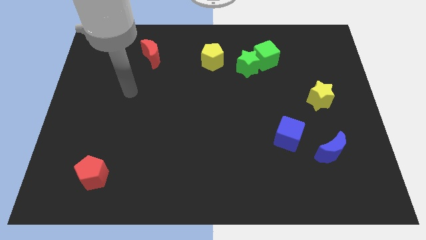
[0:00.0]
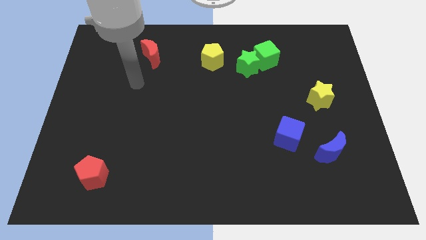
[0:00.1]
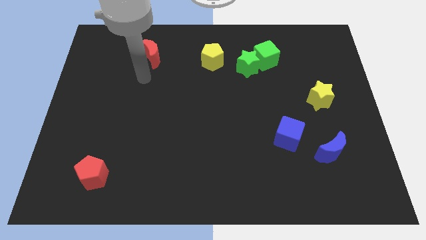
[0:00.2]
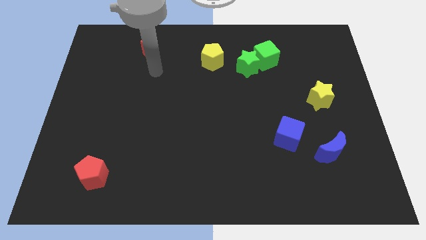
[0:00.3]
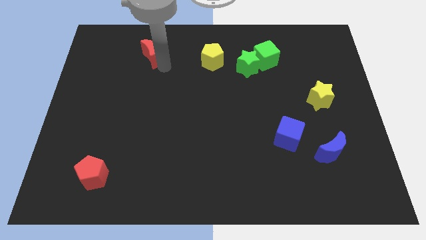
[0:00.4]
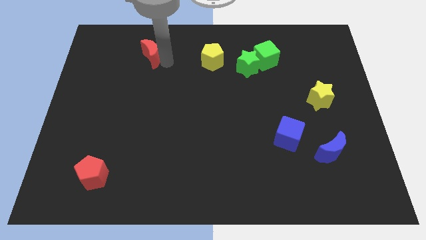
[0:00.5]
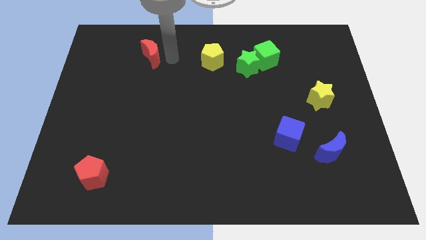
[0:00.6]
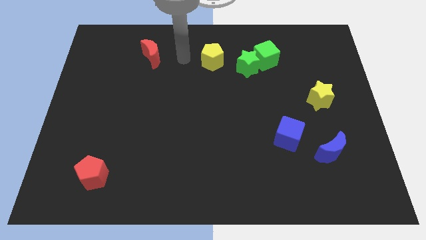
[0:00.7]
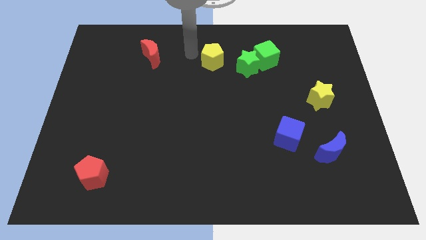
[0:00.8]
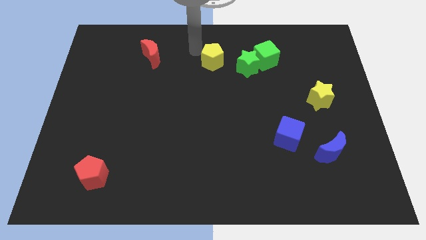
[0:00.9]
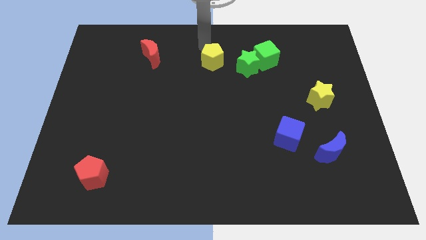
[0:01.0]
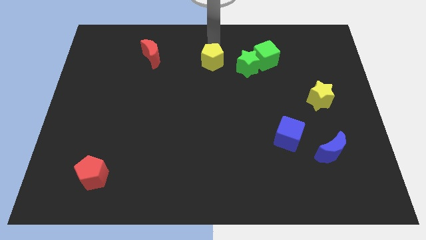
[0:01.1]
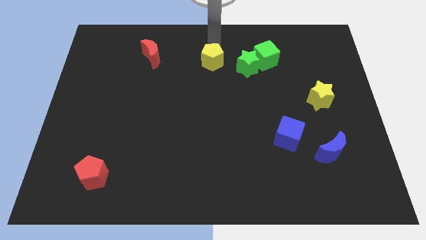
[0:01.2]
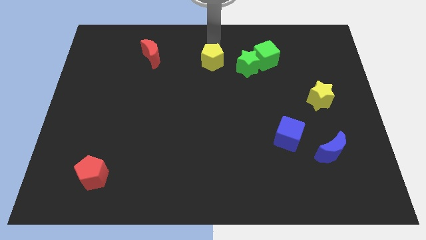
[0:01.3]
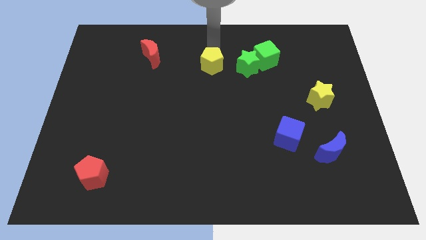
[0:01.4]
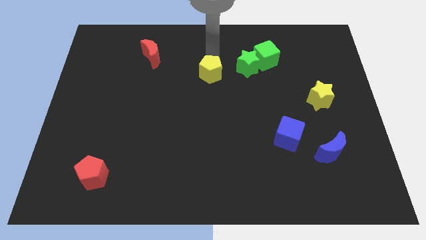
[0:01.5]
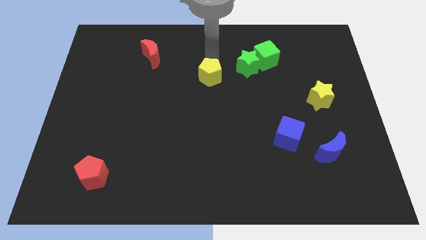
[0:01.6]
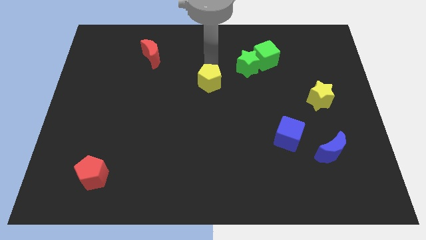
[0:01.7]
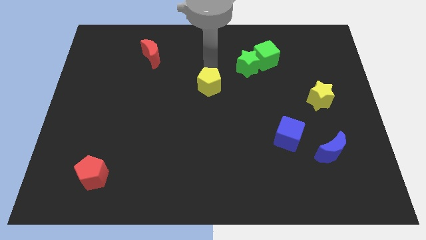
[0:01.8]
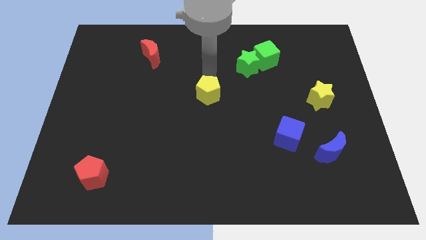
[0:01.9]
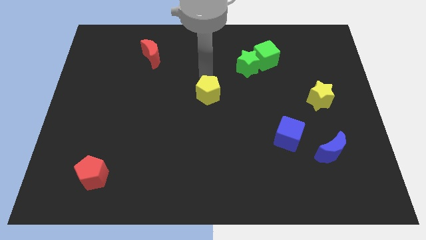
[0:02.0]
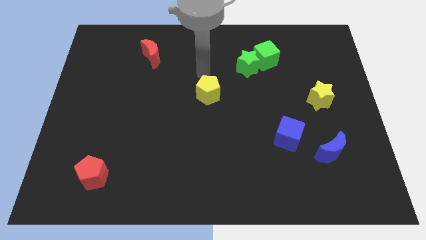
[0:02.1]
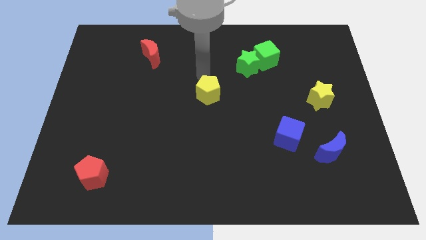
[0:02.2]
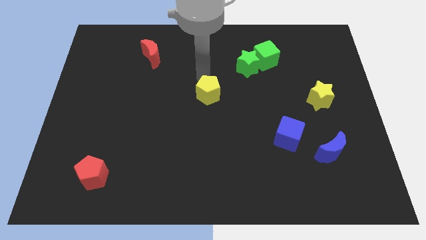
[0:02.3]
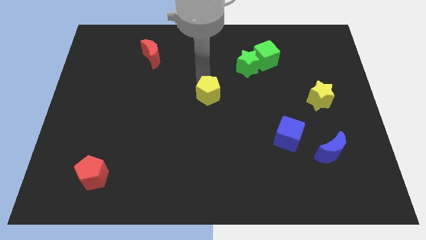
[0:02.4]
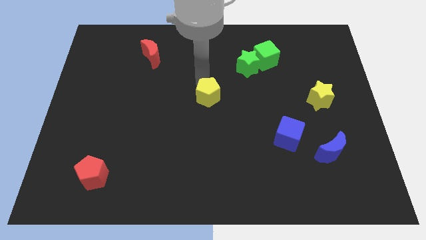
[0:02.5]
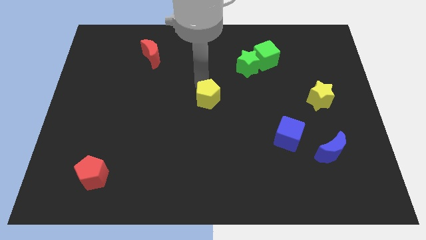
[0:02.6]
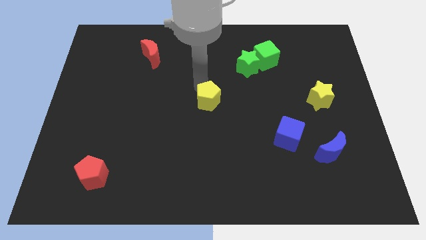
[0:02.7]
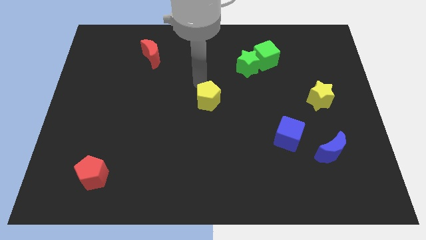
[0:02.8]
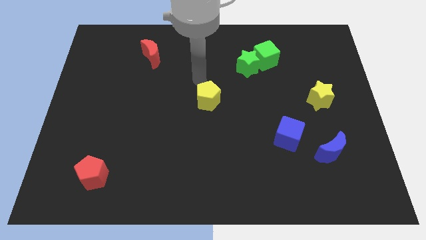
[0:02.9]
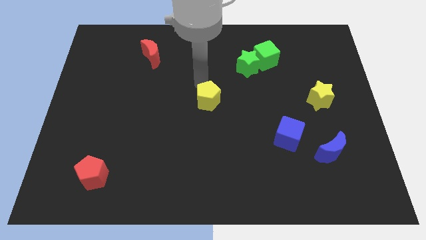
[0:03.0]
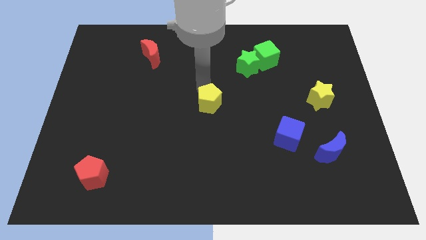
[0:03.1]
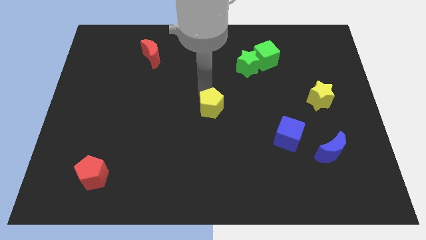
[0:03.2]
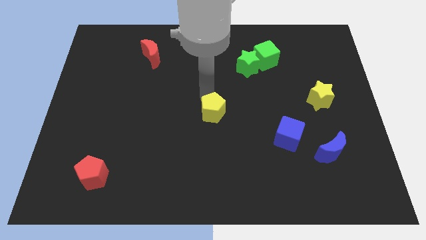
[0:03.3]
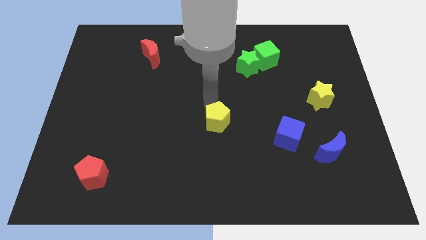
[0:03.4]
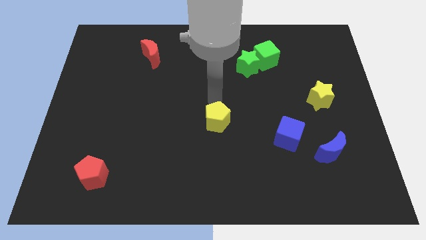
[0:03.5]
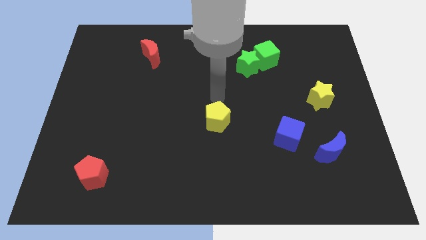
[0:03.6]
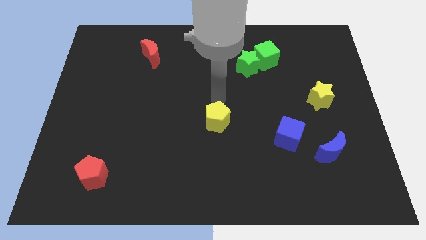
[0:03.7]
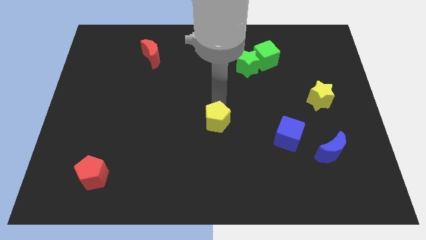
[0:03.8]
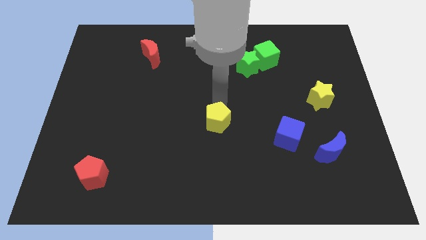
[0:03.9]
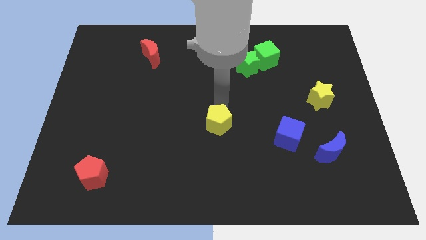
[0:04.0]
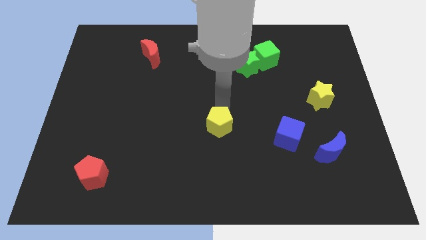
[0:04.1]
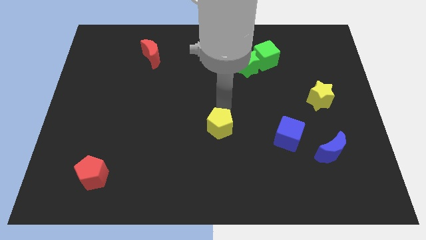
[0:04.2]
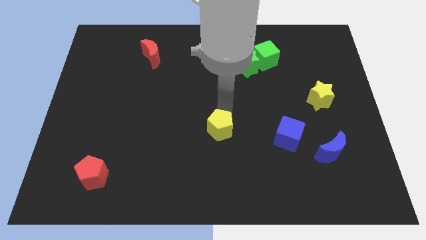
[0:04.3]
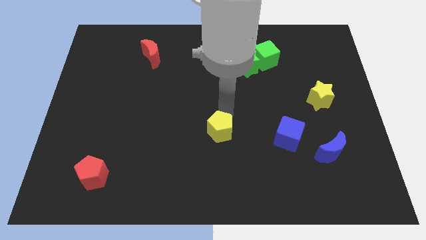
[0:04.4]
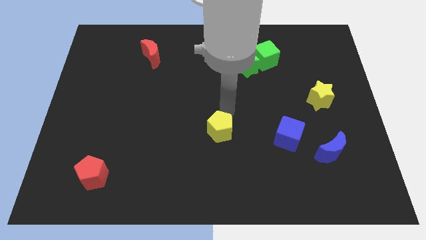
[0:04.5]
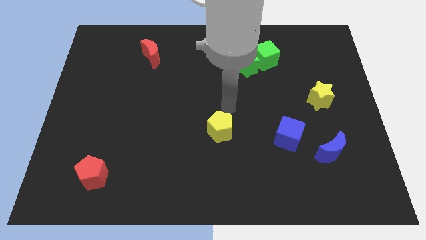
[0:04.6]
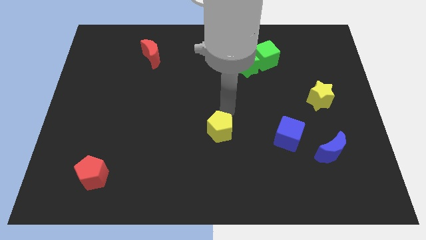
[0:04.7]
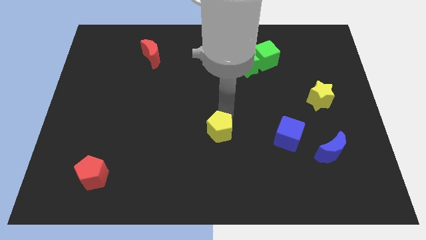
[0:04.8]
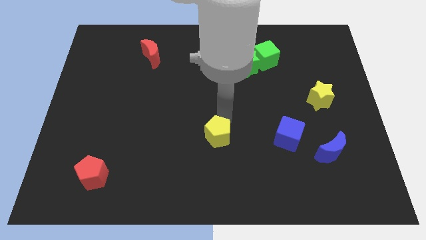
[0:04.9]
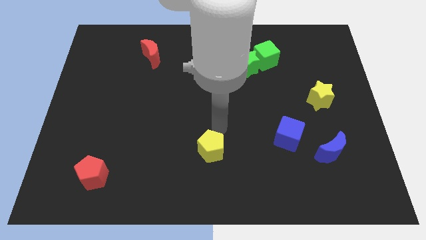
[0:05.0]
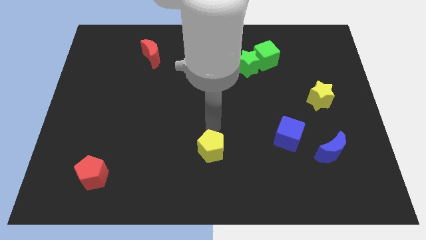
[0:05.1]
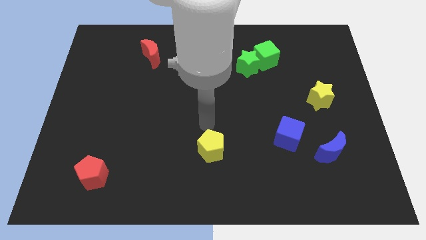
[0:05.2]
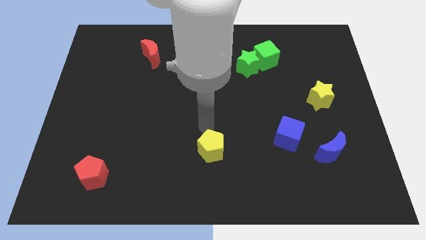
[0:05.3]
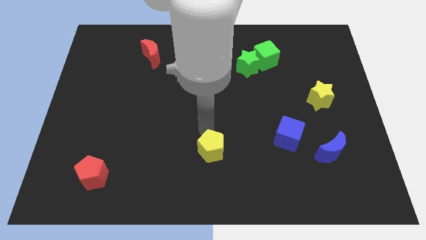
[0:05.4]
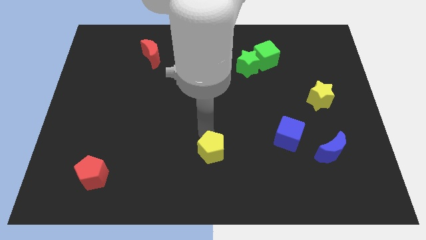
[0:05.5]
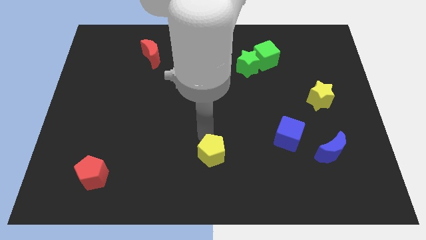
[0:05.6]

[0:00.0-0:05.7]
slide the yellow pentagon to the bottom side

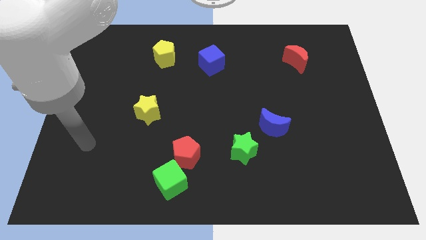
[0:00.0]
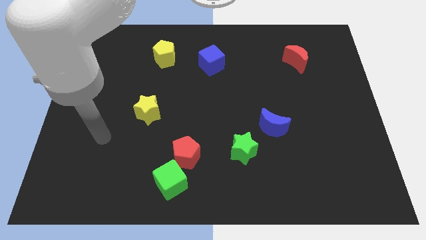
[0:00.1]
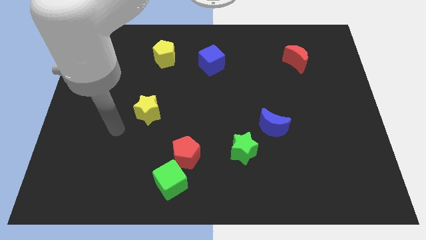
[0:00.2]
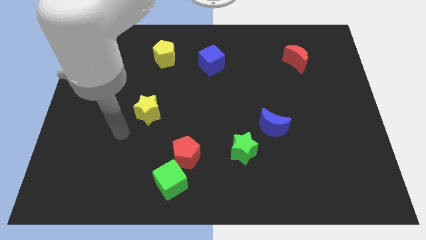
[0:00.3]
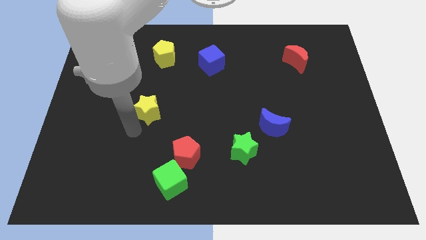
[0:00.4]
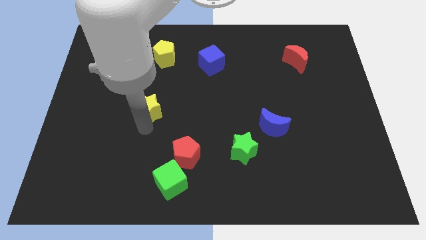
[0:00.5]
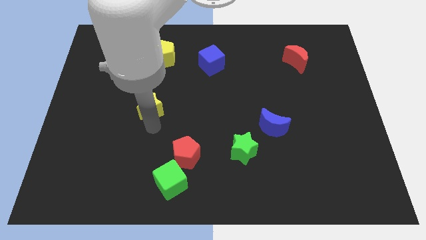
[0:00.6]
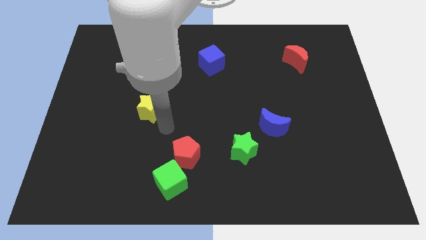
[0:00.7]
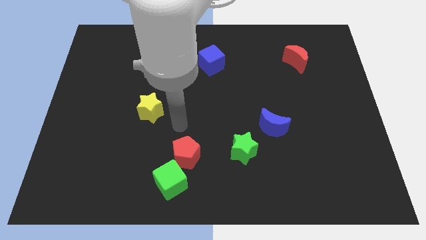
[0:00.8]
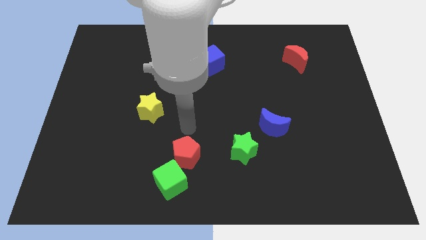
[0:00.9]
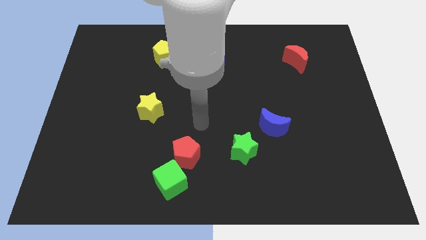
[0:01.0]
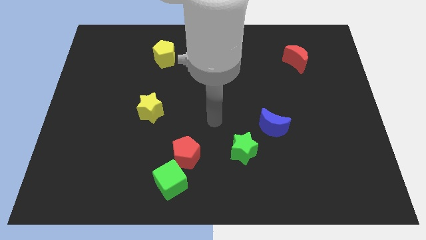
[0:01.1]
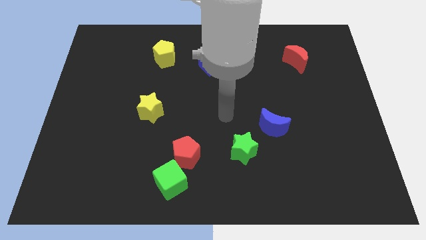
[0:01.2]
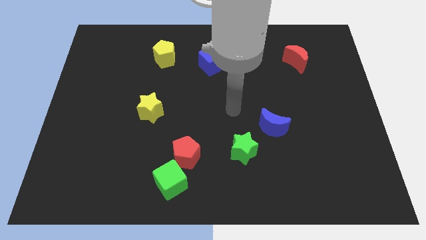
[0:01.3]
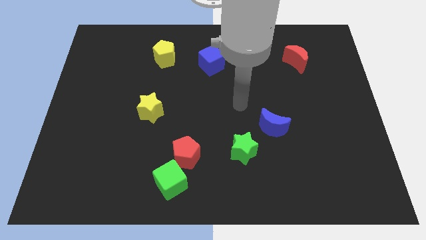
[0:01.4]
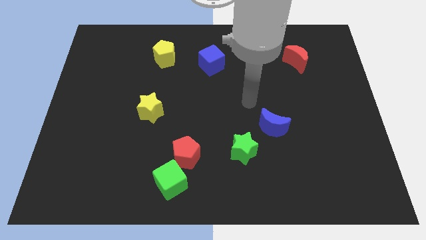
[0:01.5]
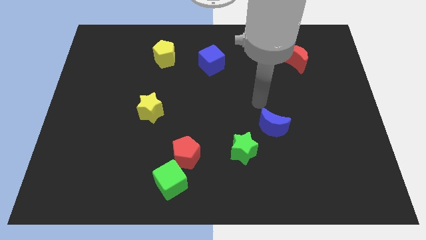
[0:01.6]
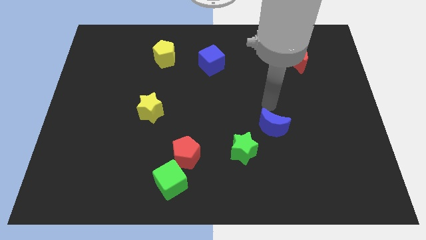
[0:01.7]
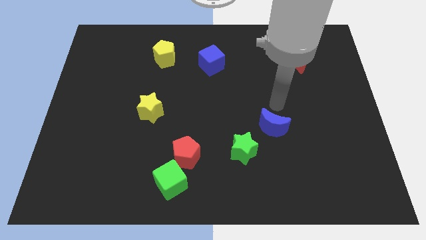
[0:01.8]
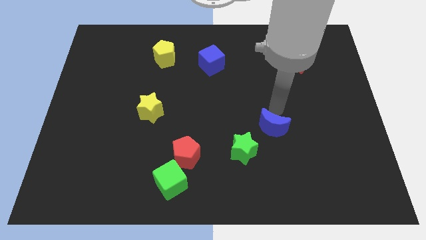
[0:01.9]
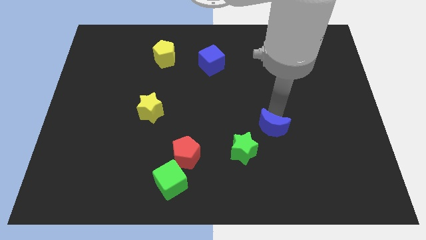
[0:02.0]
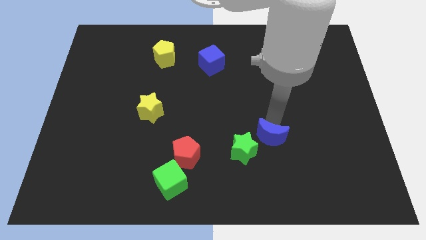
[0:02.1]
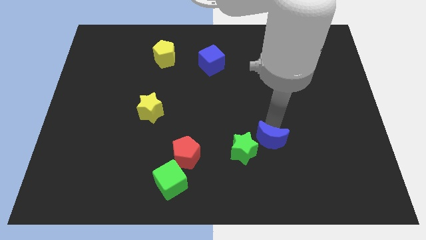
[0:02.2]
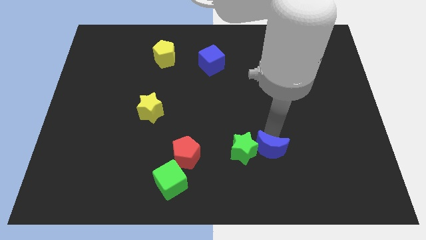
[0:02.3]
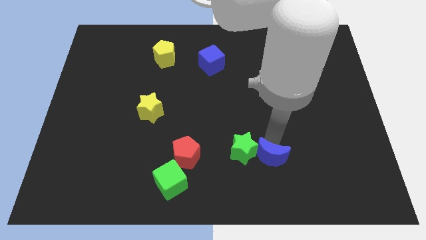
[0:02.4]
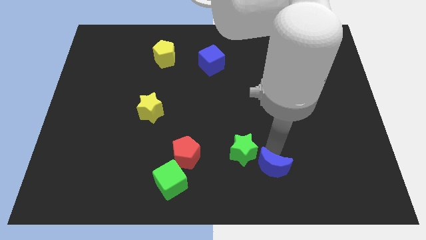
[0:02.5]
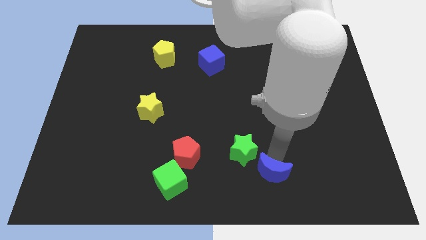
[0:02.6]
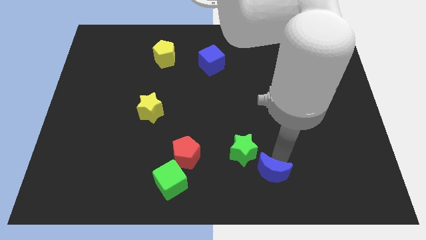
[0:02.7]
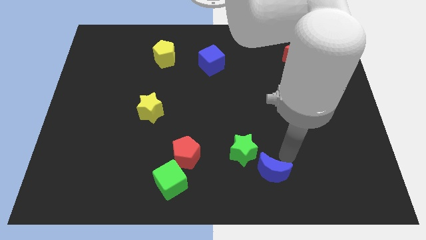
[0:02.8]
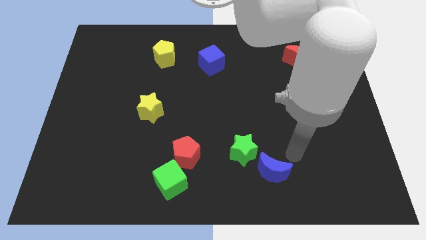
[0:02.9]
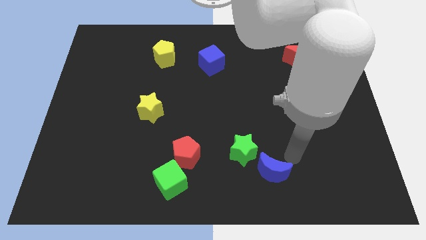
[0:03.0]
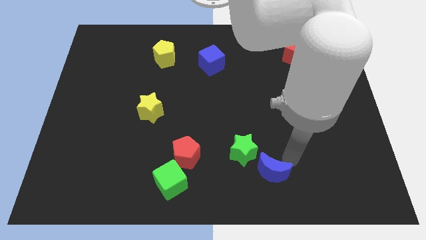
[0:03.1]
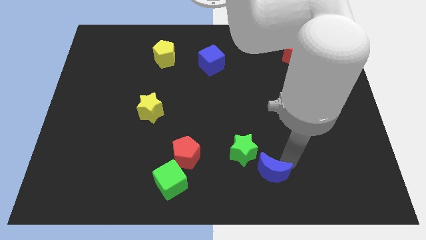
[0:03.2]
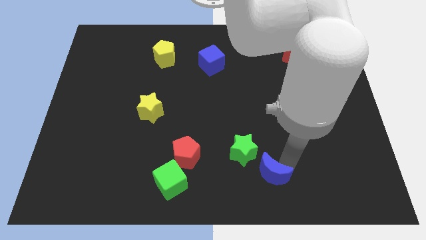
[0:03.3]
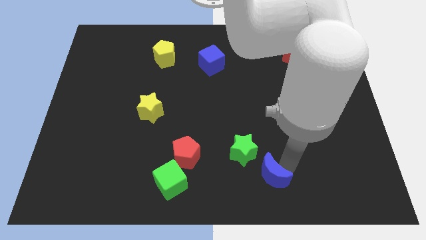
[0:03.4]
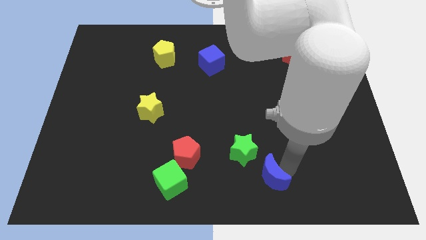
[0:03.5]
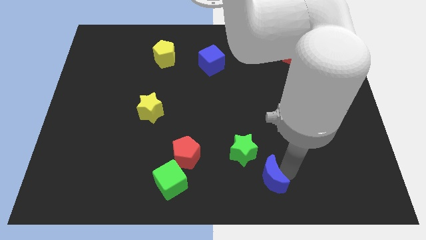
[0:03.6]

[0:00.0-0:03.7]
slide the blue moon to the bottom side
